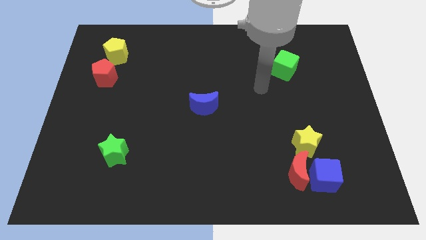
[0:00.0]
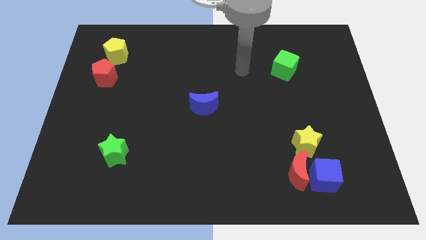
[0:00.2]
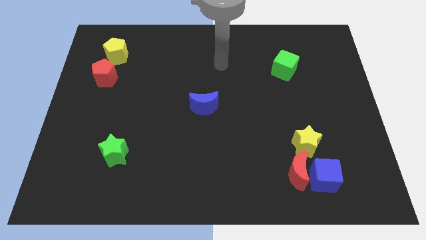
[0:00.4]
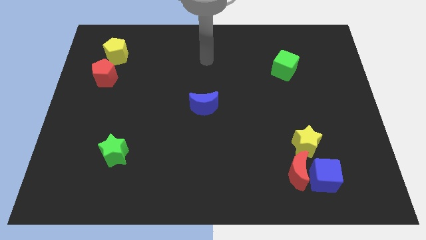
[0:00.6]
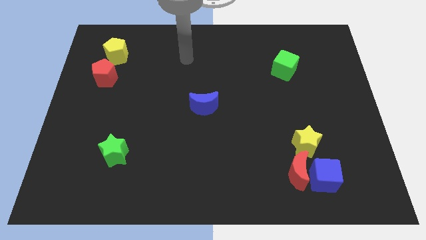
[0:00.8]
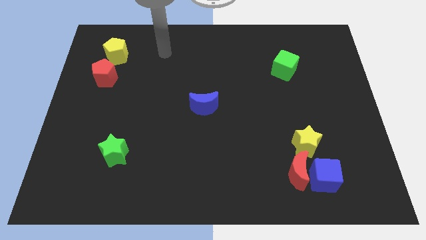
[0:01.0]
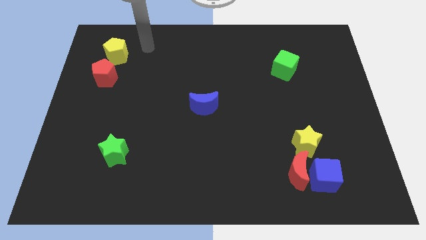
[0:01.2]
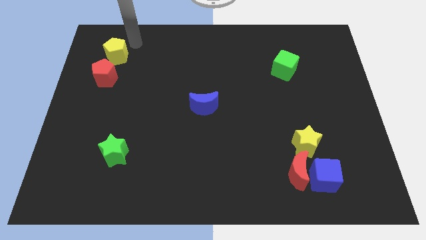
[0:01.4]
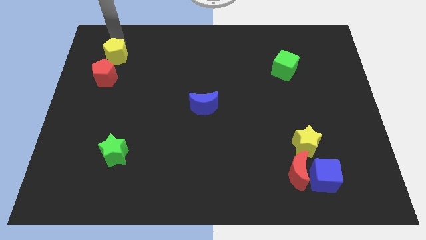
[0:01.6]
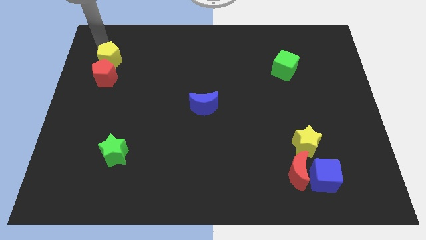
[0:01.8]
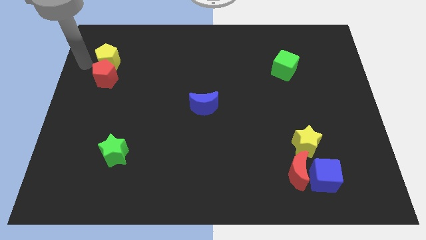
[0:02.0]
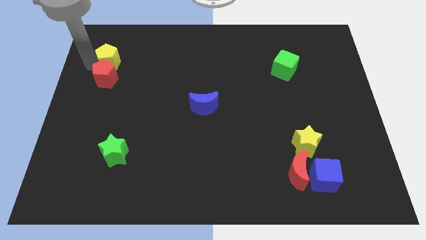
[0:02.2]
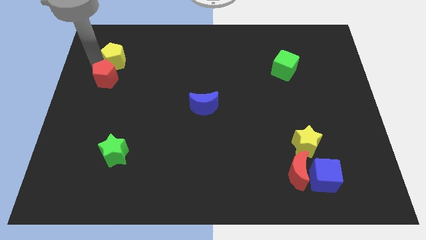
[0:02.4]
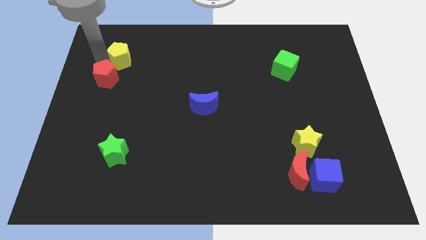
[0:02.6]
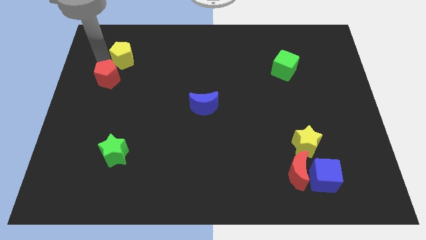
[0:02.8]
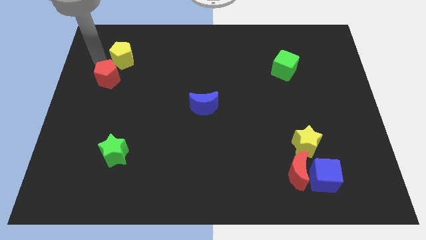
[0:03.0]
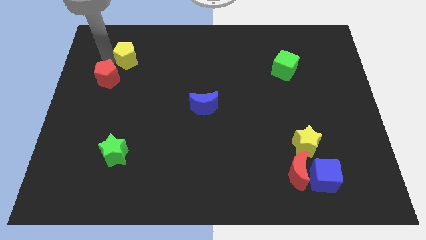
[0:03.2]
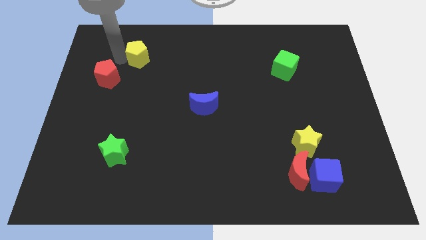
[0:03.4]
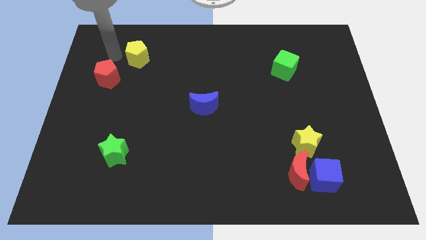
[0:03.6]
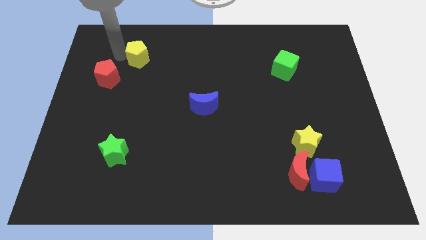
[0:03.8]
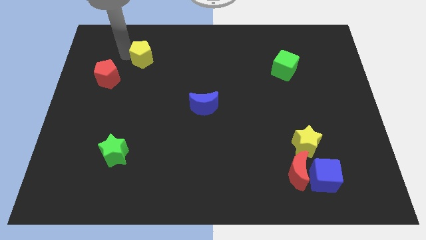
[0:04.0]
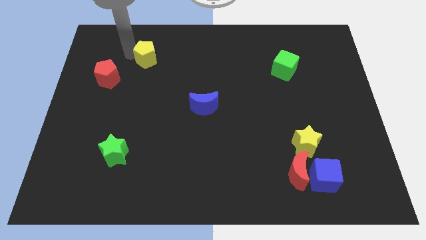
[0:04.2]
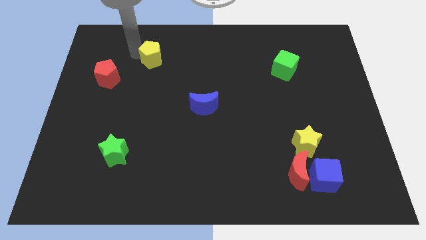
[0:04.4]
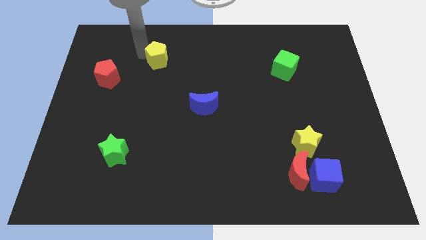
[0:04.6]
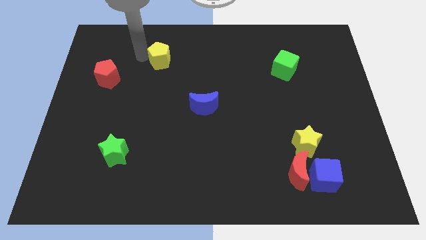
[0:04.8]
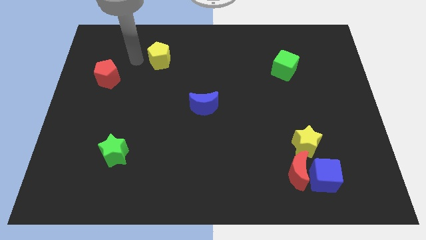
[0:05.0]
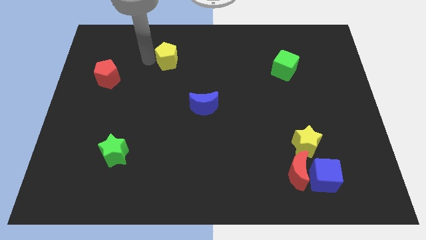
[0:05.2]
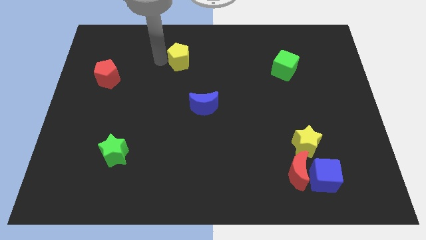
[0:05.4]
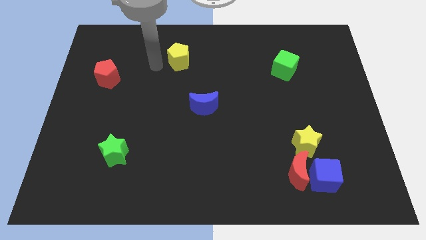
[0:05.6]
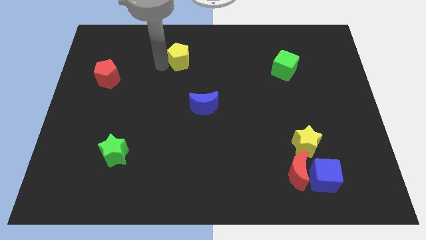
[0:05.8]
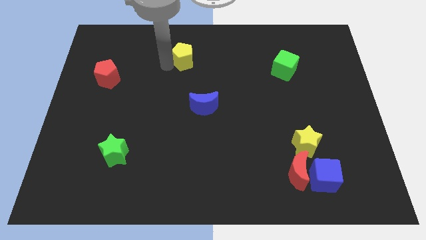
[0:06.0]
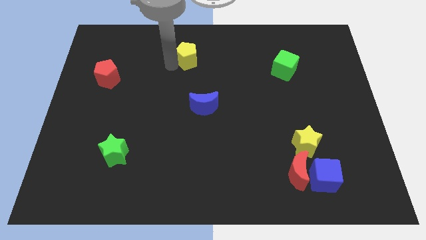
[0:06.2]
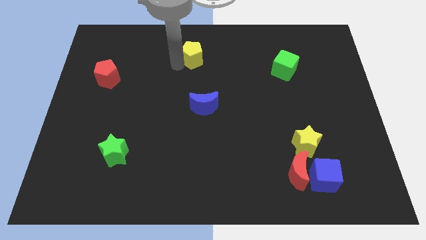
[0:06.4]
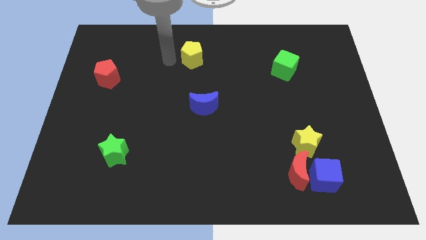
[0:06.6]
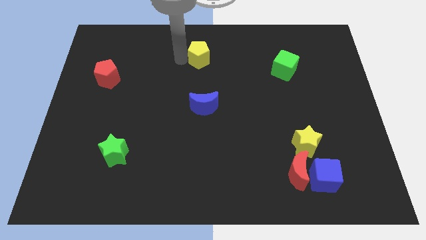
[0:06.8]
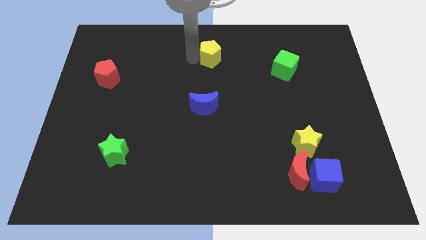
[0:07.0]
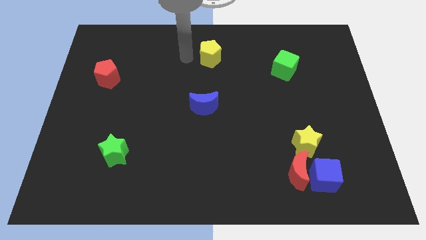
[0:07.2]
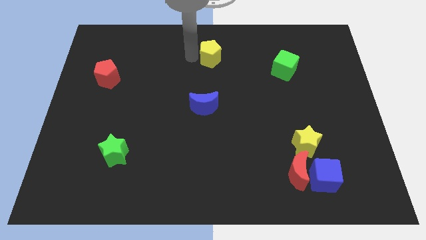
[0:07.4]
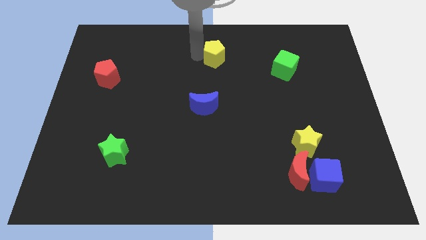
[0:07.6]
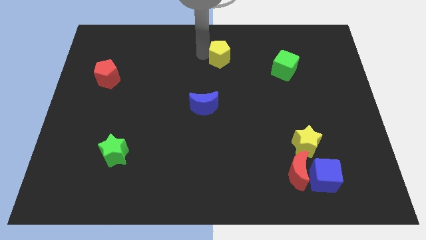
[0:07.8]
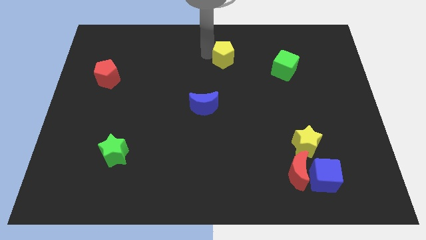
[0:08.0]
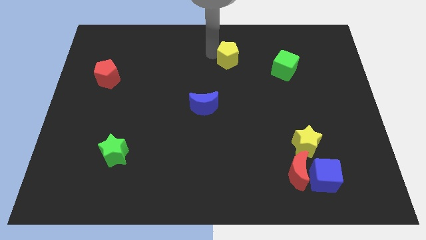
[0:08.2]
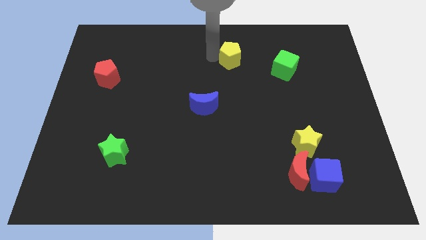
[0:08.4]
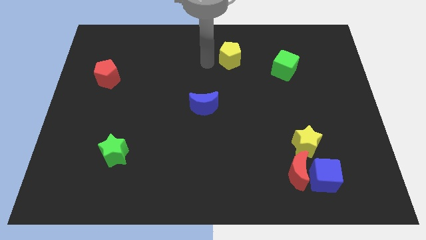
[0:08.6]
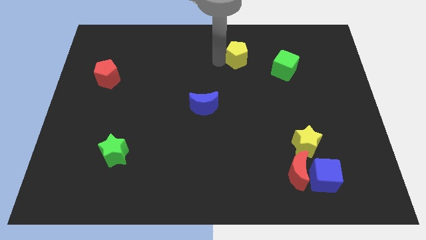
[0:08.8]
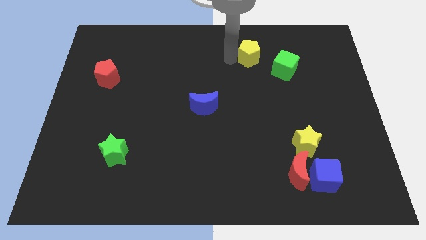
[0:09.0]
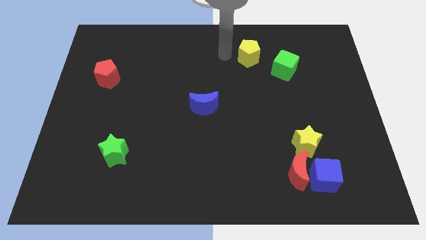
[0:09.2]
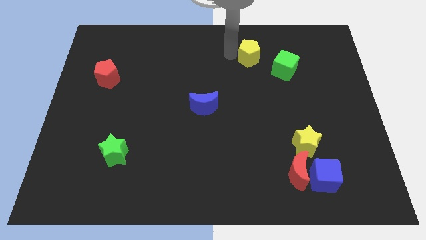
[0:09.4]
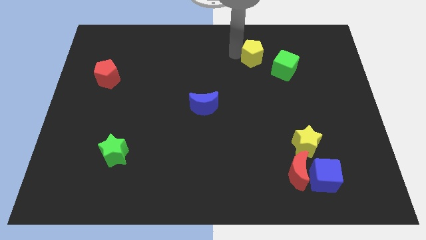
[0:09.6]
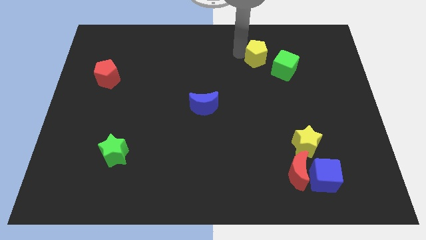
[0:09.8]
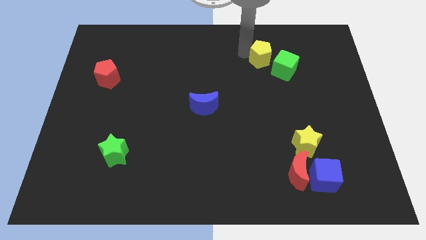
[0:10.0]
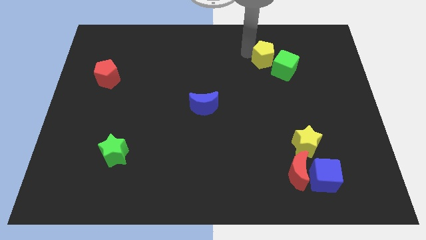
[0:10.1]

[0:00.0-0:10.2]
push the yellow pentagon to the green cube

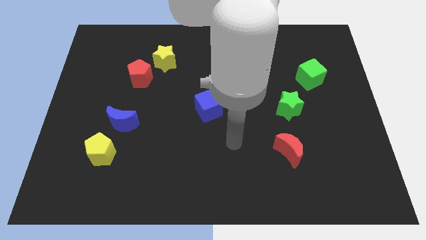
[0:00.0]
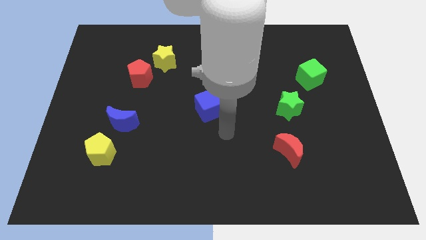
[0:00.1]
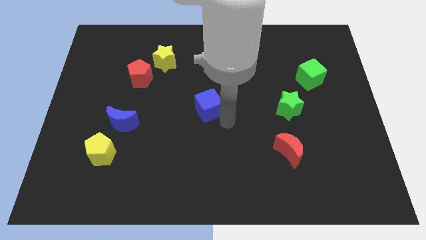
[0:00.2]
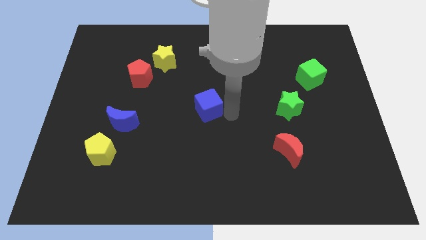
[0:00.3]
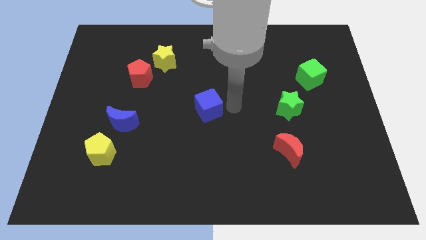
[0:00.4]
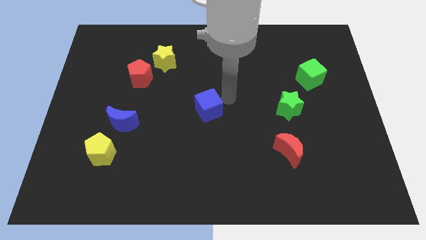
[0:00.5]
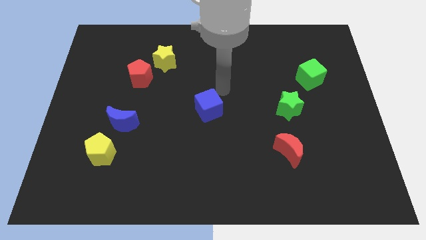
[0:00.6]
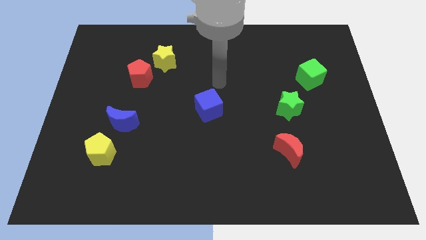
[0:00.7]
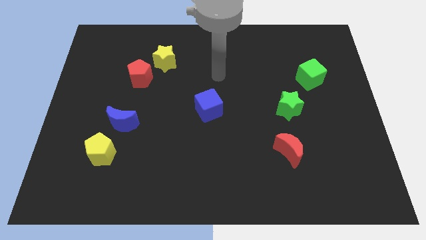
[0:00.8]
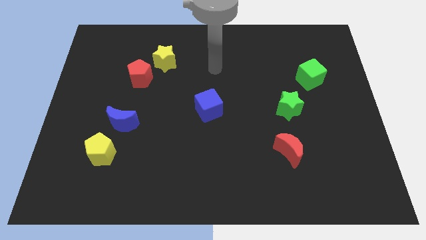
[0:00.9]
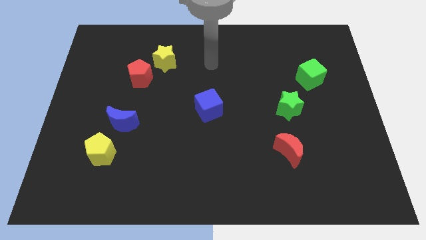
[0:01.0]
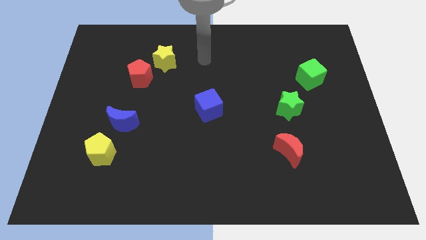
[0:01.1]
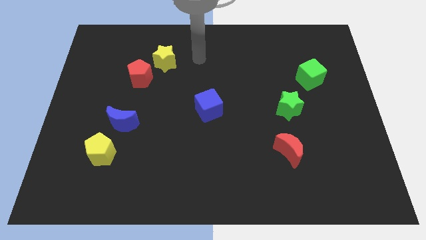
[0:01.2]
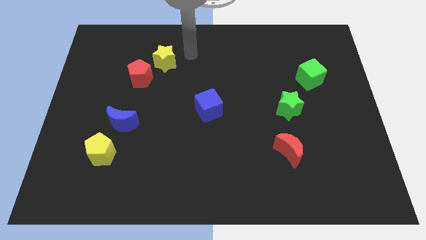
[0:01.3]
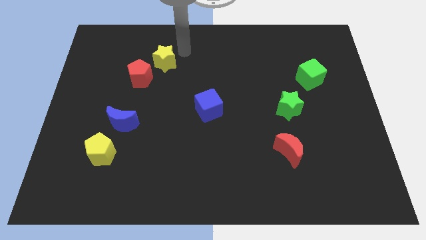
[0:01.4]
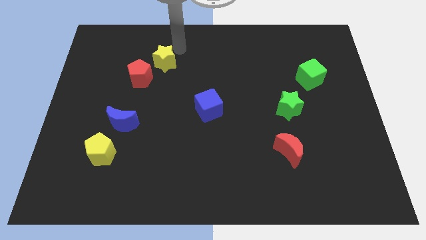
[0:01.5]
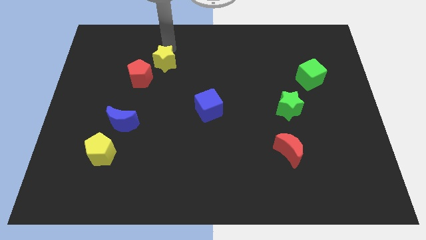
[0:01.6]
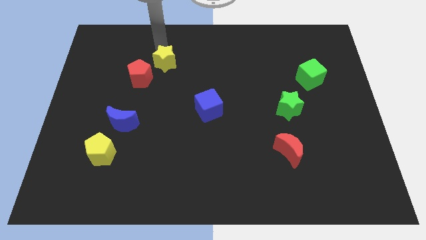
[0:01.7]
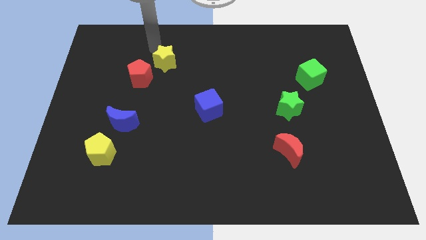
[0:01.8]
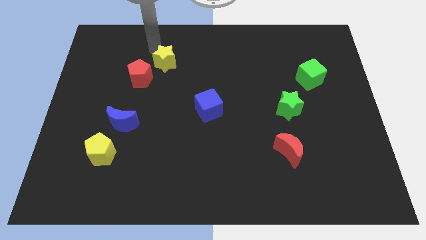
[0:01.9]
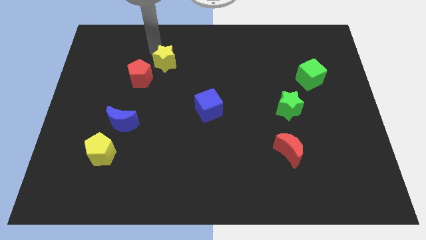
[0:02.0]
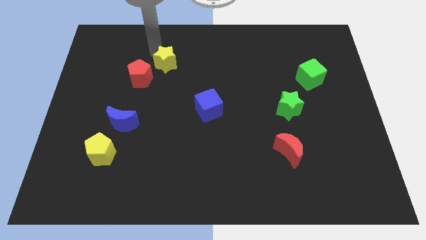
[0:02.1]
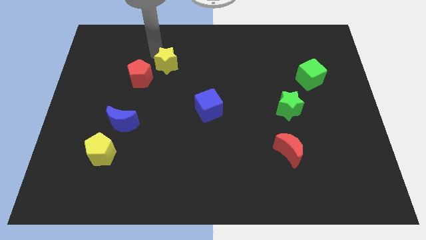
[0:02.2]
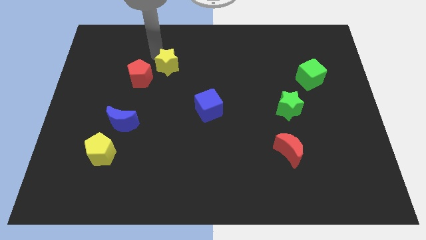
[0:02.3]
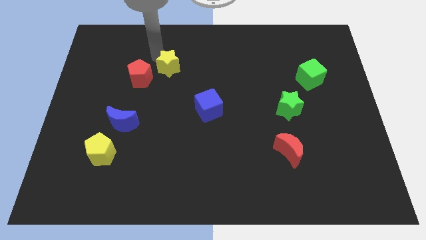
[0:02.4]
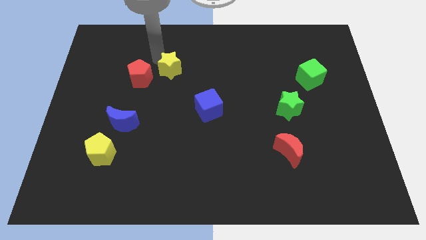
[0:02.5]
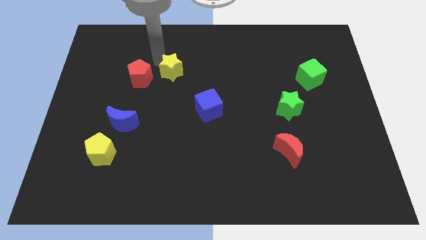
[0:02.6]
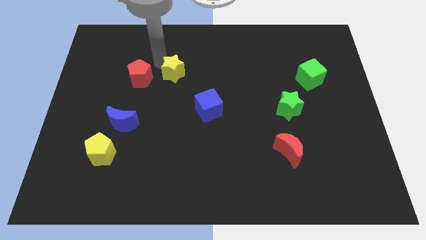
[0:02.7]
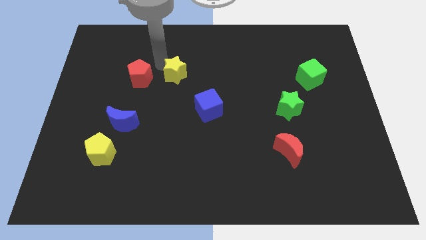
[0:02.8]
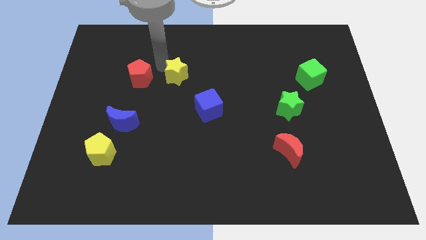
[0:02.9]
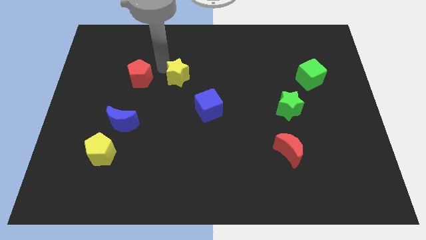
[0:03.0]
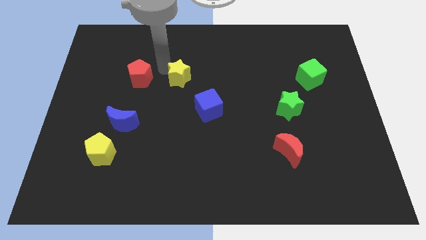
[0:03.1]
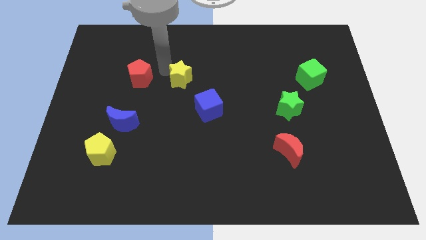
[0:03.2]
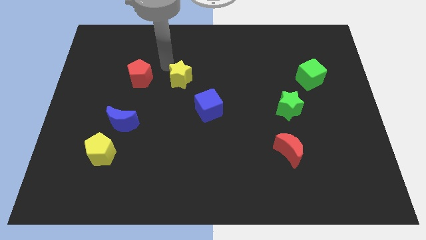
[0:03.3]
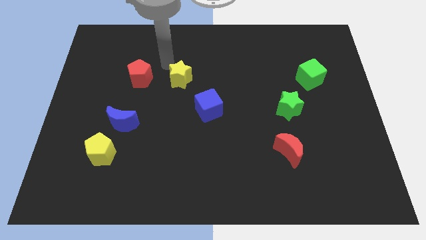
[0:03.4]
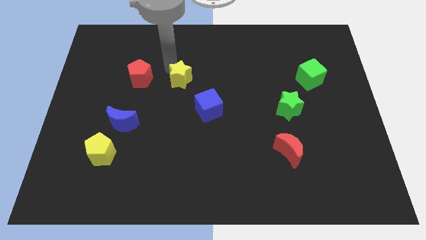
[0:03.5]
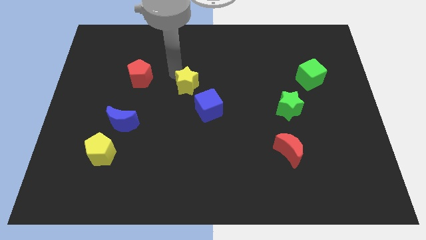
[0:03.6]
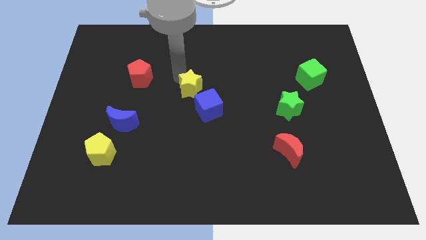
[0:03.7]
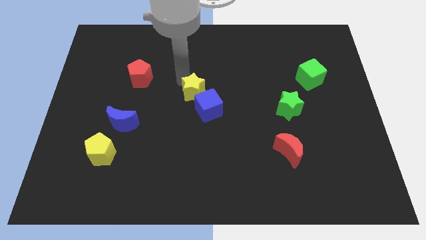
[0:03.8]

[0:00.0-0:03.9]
move the yellow star towards the blue cube
